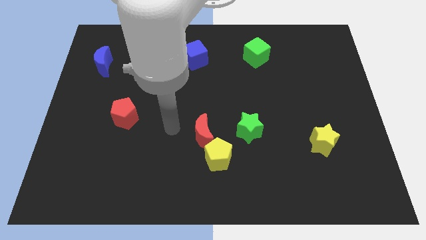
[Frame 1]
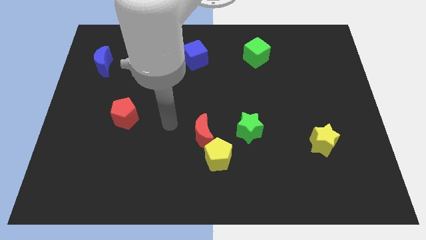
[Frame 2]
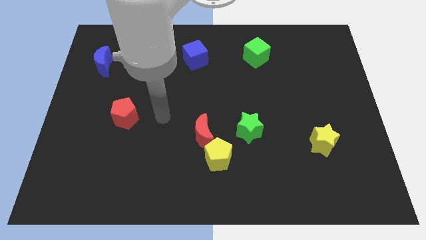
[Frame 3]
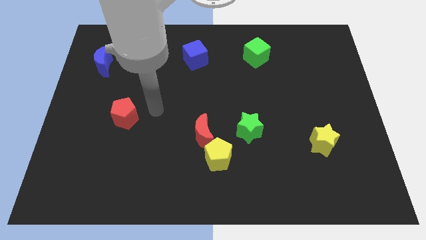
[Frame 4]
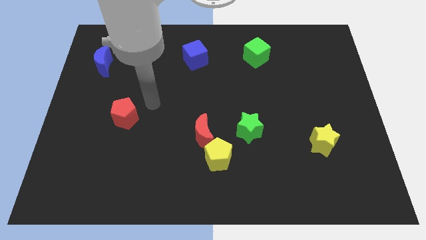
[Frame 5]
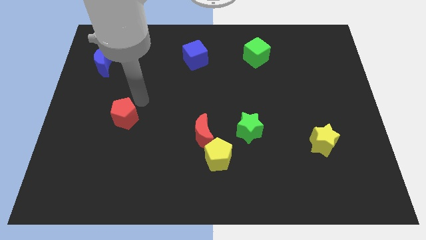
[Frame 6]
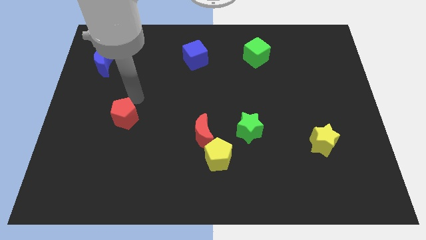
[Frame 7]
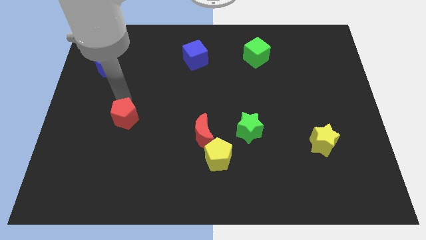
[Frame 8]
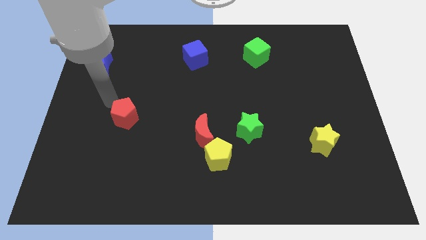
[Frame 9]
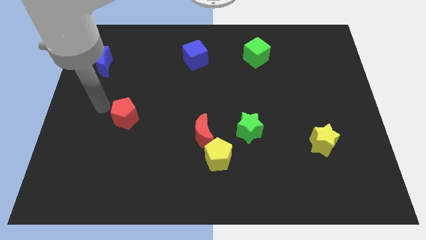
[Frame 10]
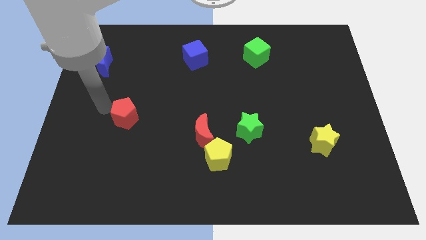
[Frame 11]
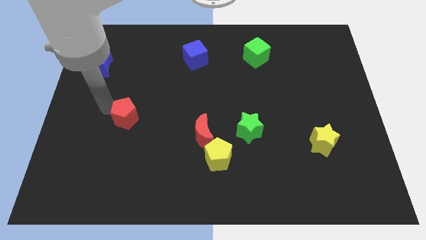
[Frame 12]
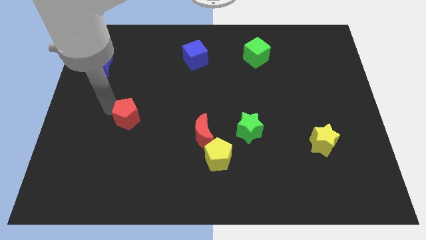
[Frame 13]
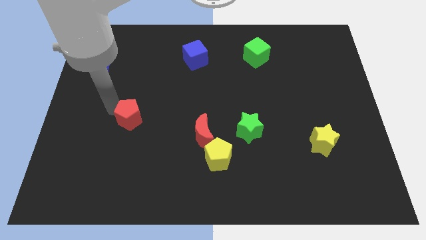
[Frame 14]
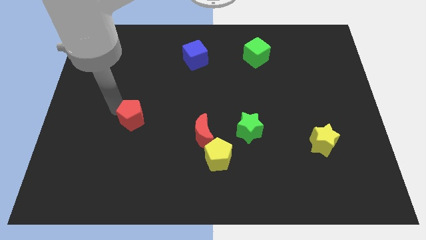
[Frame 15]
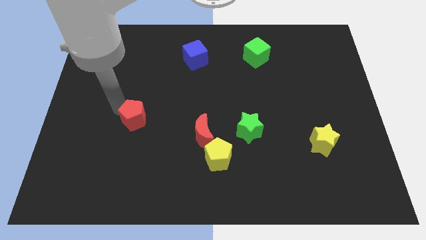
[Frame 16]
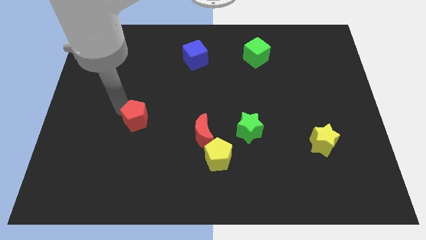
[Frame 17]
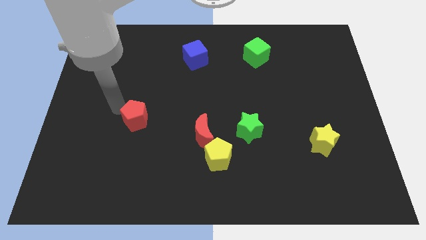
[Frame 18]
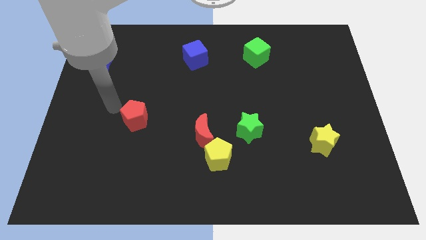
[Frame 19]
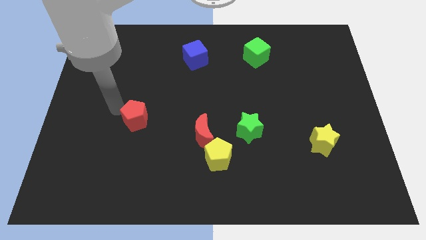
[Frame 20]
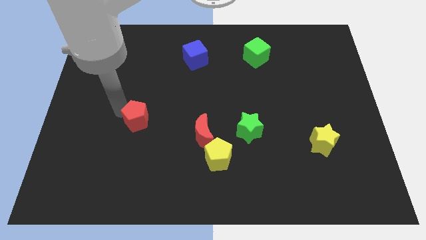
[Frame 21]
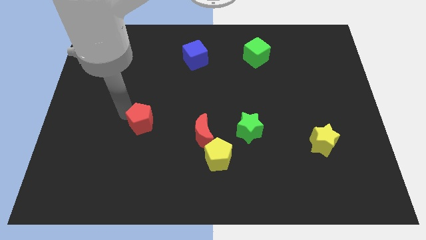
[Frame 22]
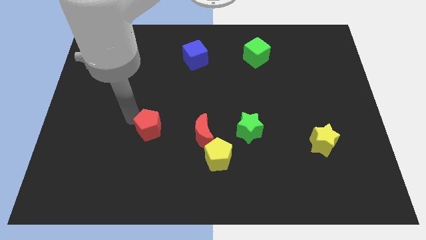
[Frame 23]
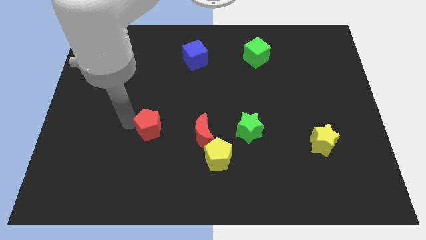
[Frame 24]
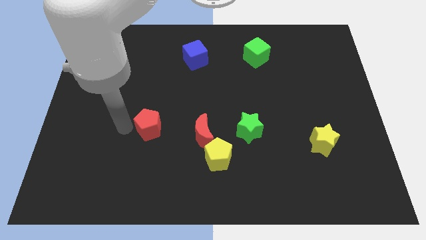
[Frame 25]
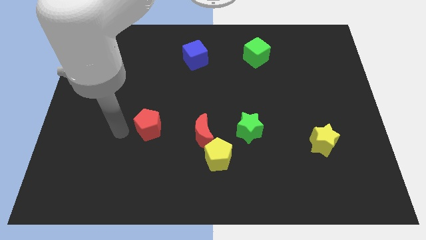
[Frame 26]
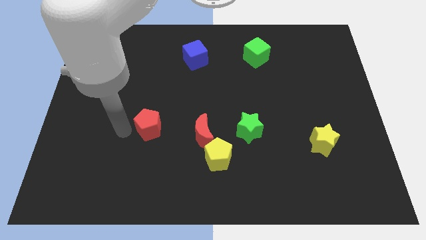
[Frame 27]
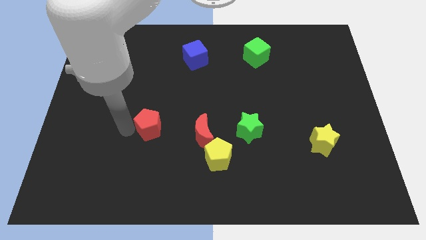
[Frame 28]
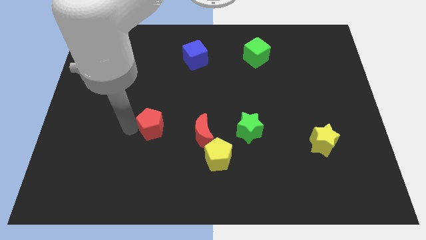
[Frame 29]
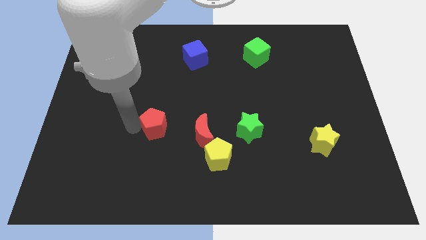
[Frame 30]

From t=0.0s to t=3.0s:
move the red pentagon somewhat right

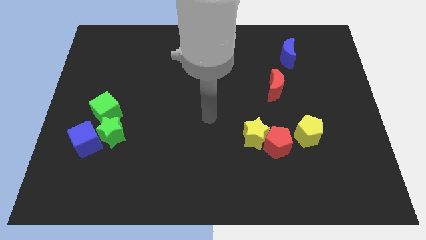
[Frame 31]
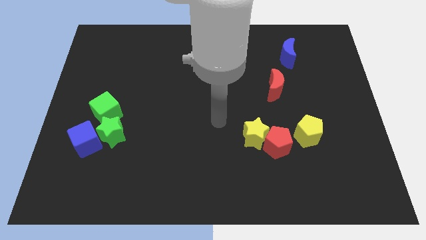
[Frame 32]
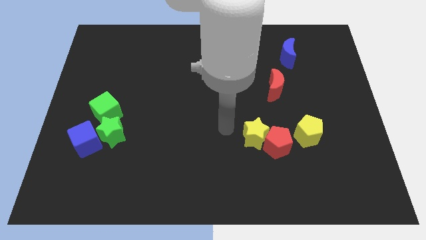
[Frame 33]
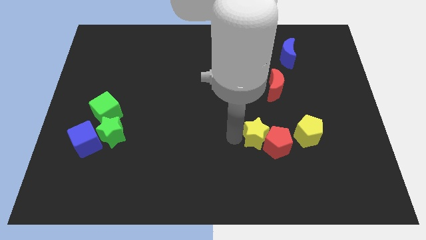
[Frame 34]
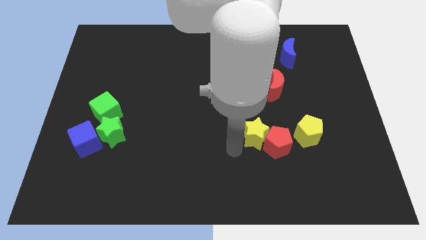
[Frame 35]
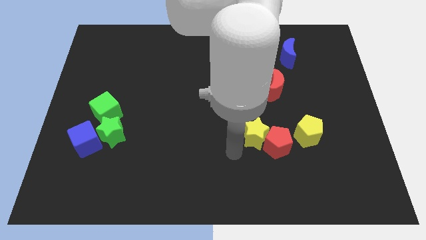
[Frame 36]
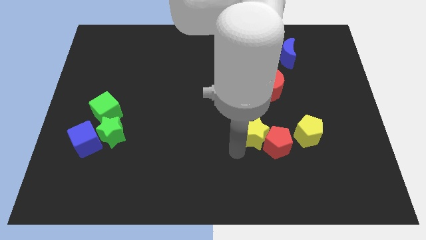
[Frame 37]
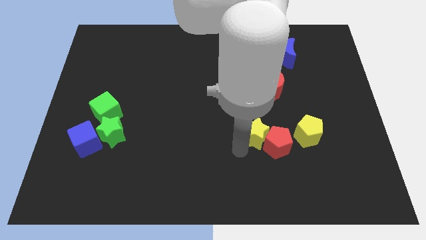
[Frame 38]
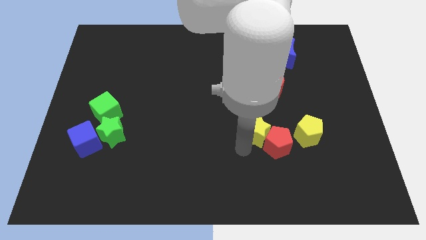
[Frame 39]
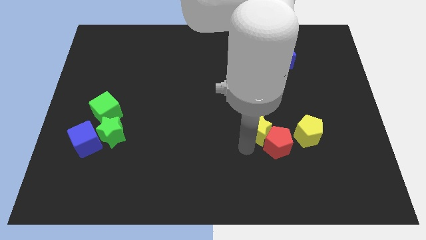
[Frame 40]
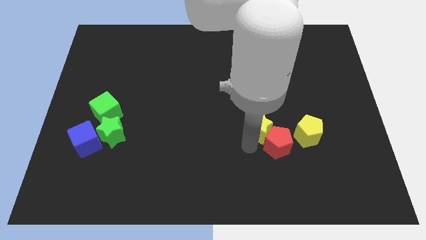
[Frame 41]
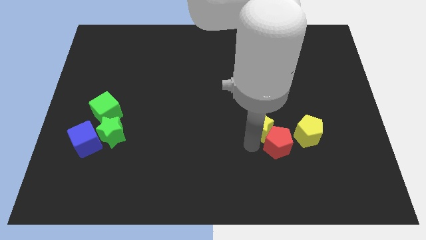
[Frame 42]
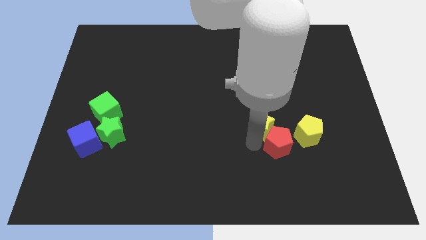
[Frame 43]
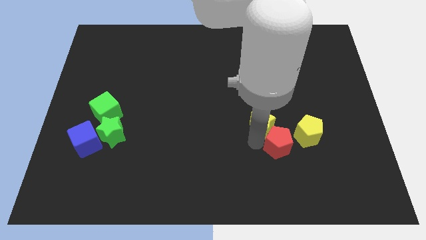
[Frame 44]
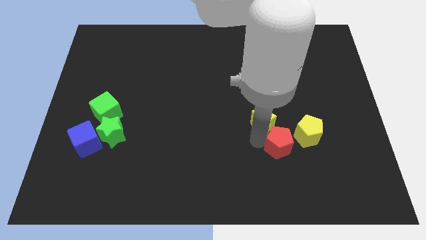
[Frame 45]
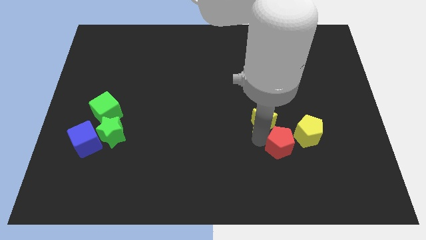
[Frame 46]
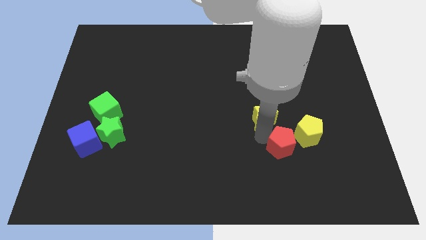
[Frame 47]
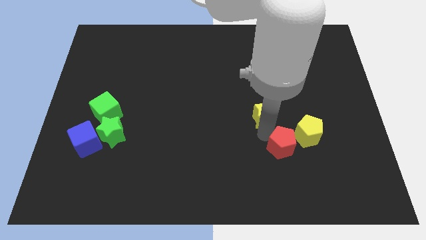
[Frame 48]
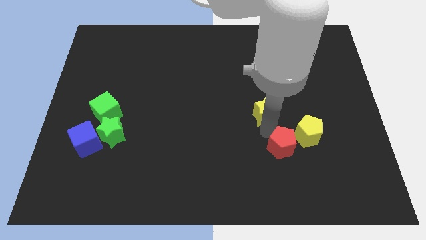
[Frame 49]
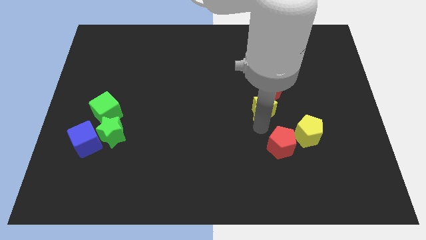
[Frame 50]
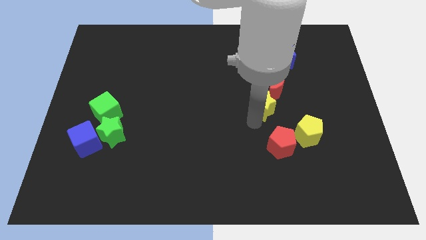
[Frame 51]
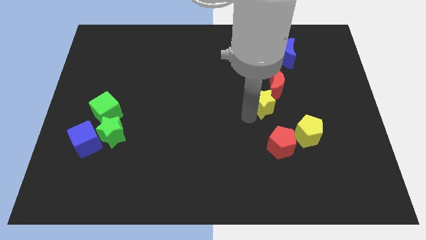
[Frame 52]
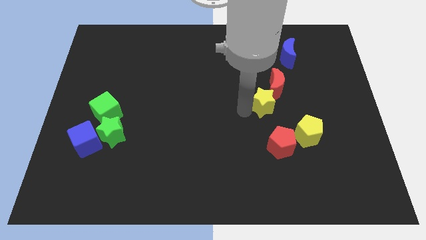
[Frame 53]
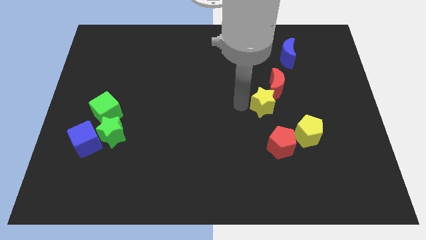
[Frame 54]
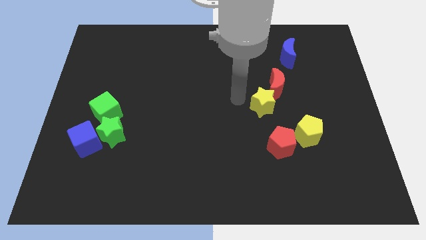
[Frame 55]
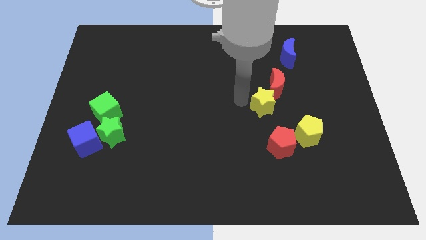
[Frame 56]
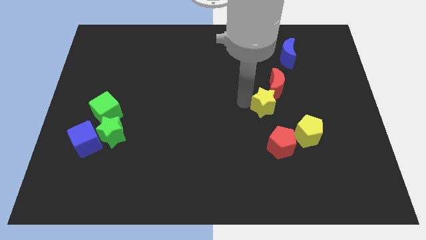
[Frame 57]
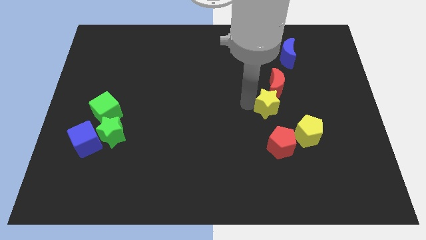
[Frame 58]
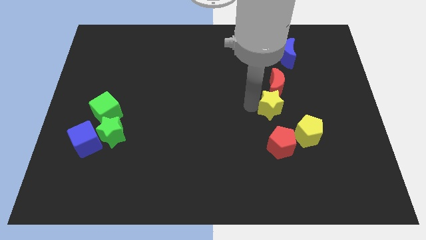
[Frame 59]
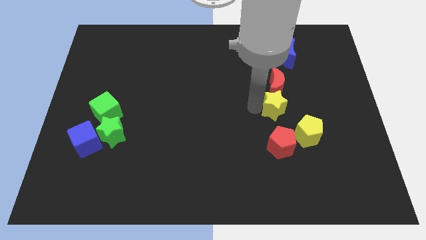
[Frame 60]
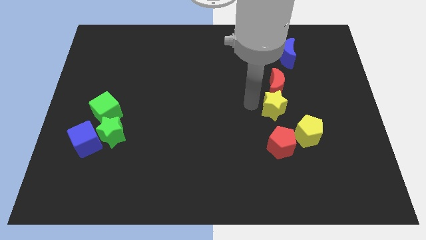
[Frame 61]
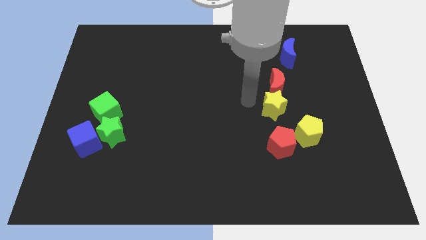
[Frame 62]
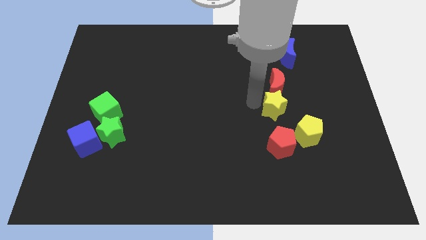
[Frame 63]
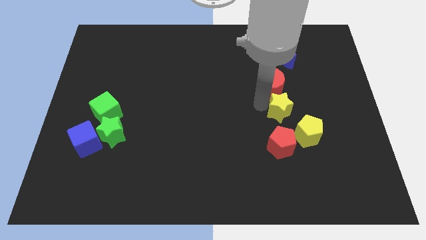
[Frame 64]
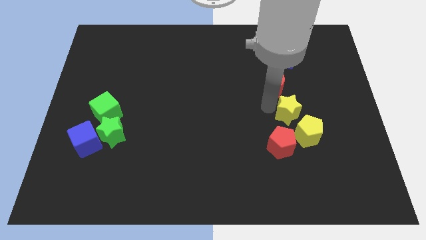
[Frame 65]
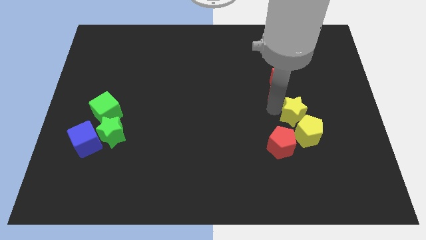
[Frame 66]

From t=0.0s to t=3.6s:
push the yellow star to the right a little bit

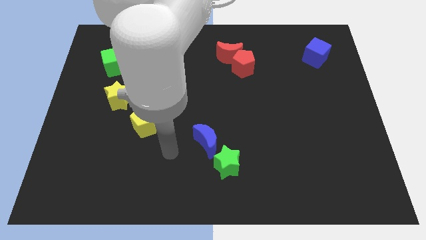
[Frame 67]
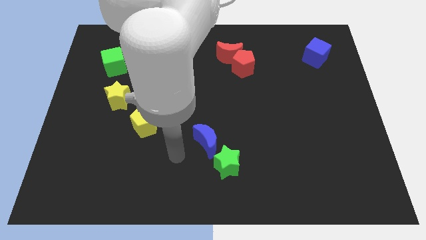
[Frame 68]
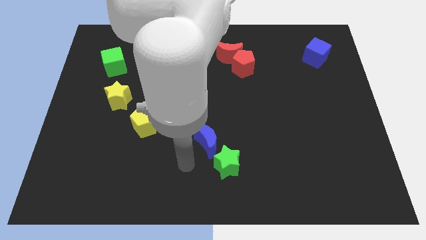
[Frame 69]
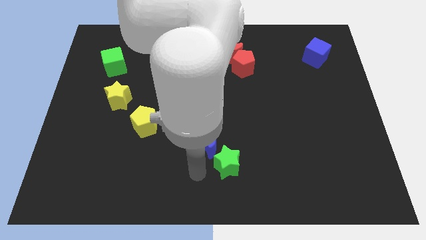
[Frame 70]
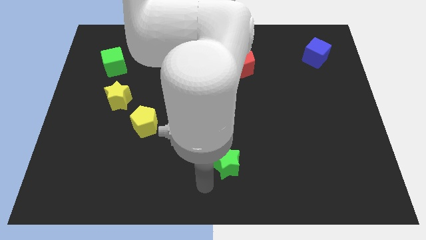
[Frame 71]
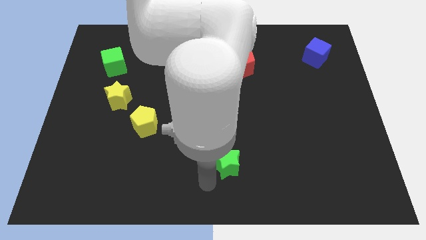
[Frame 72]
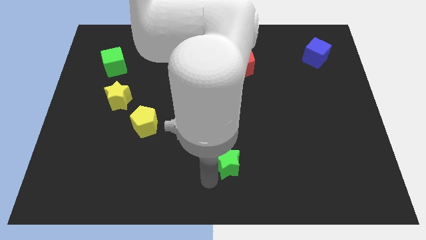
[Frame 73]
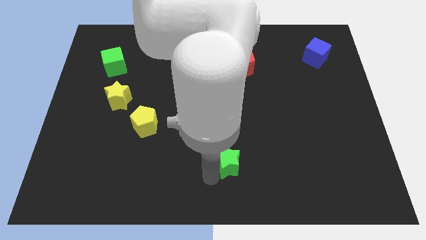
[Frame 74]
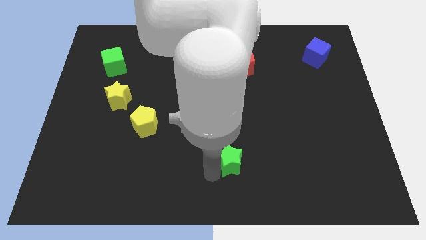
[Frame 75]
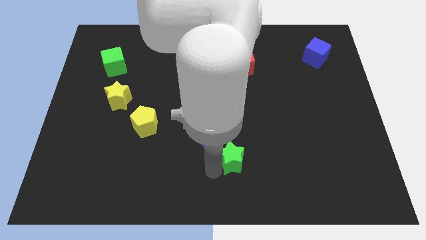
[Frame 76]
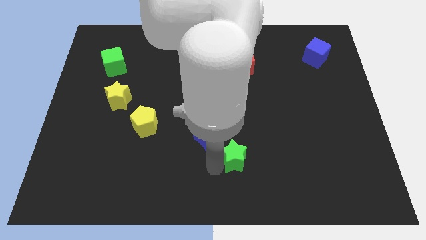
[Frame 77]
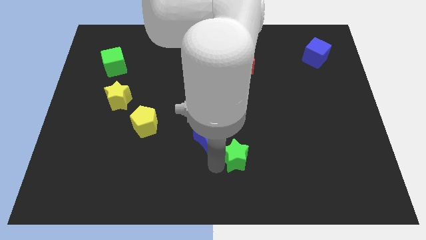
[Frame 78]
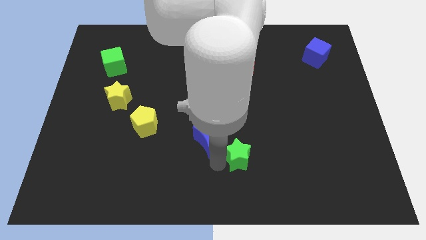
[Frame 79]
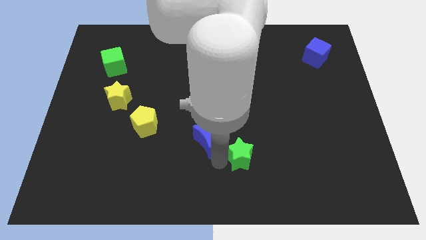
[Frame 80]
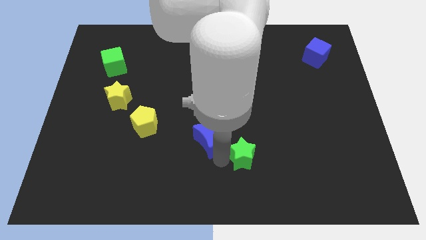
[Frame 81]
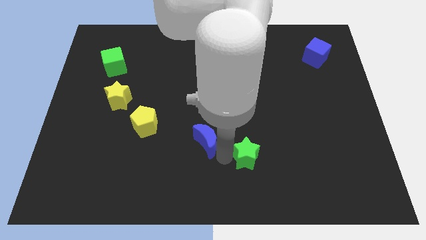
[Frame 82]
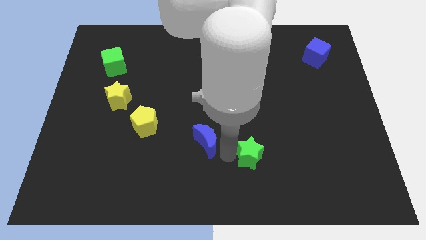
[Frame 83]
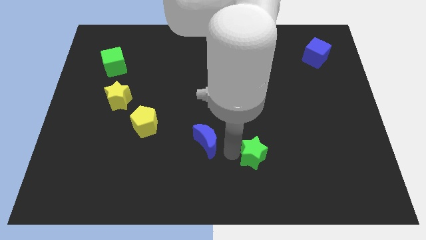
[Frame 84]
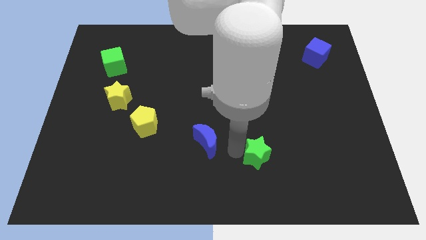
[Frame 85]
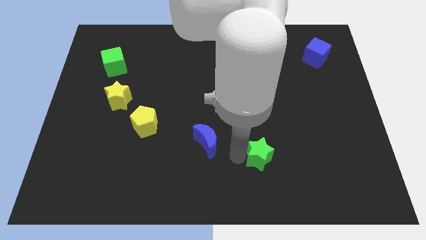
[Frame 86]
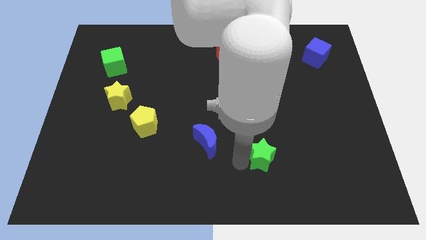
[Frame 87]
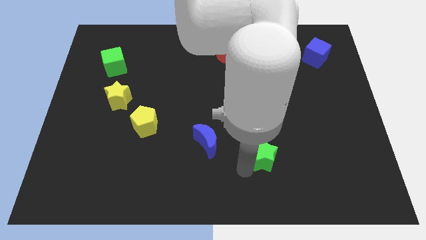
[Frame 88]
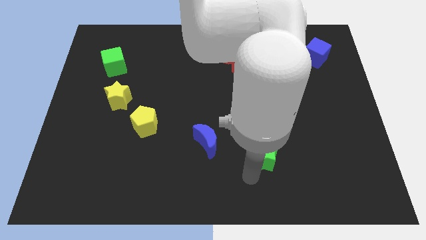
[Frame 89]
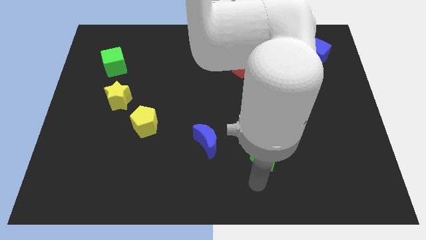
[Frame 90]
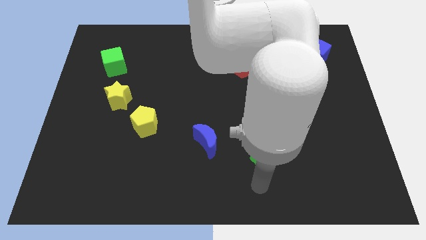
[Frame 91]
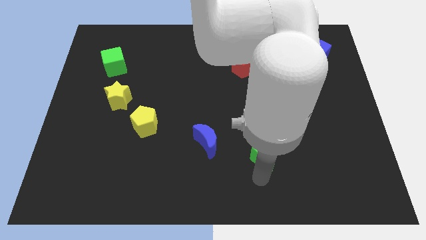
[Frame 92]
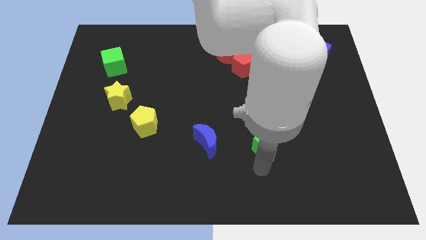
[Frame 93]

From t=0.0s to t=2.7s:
slide the green star up and to the right somewhat
